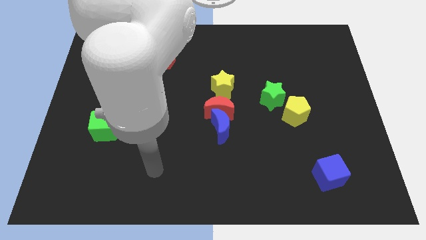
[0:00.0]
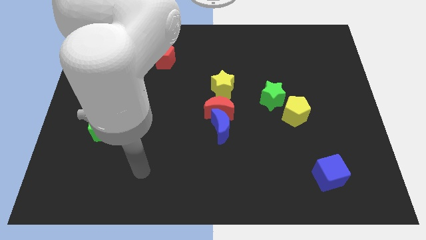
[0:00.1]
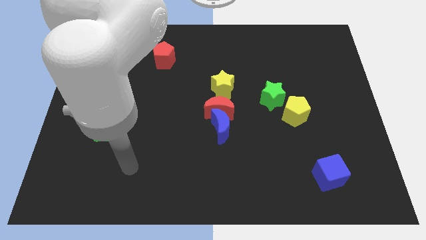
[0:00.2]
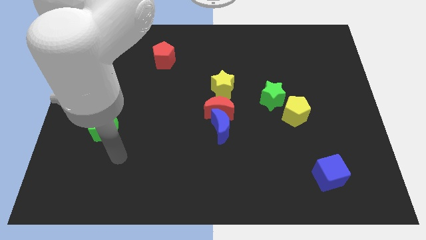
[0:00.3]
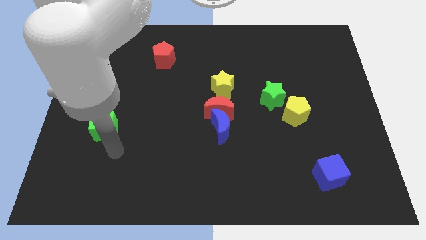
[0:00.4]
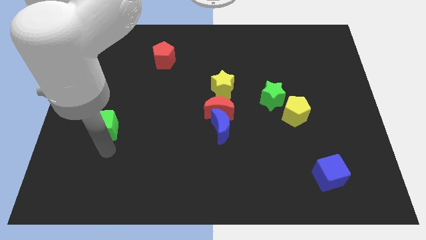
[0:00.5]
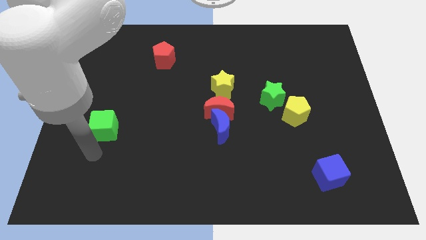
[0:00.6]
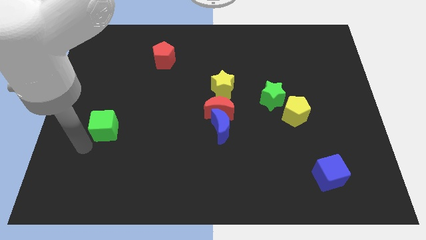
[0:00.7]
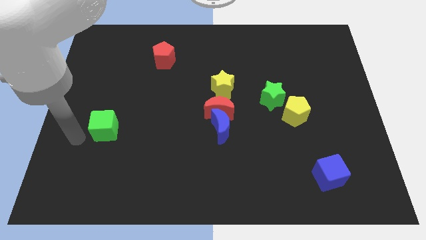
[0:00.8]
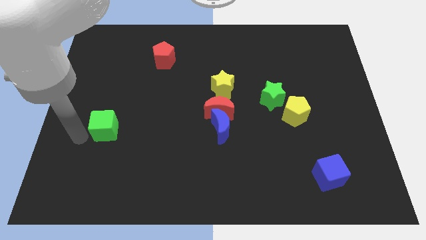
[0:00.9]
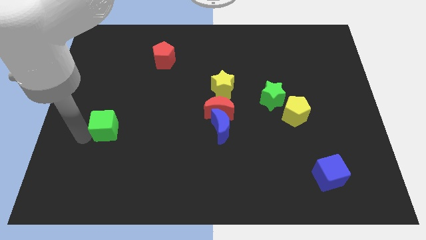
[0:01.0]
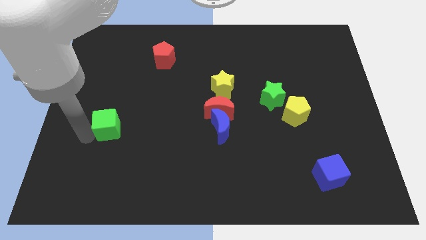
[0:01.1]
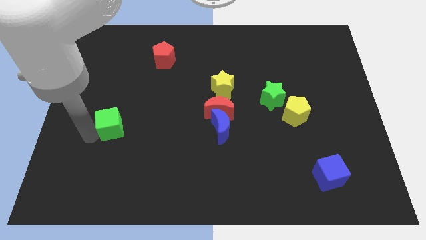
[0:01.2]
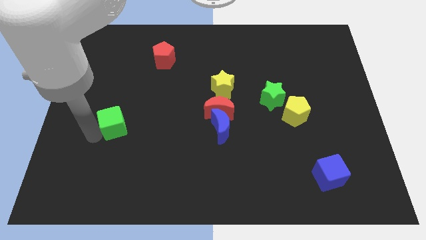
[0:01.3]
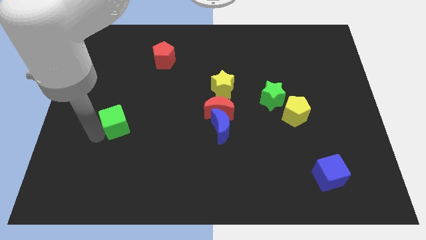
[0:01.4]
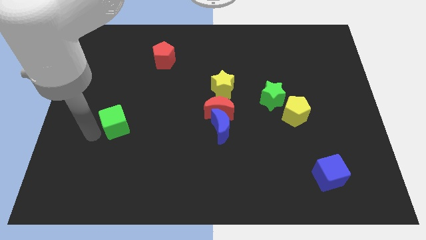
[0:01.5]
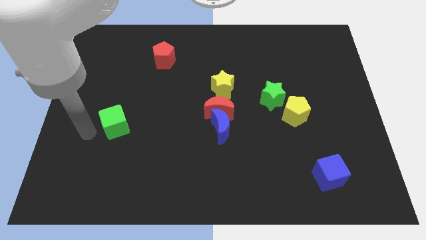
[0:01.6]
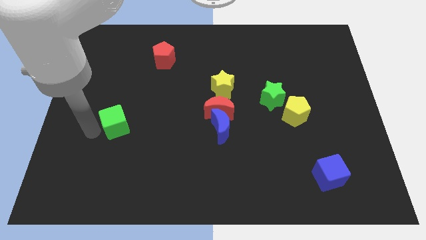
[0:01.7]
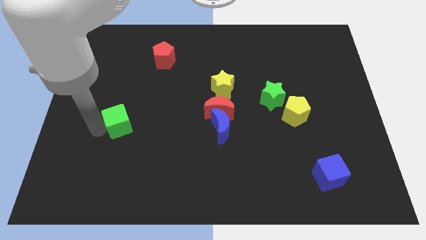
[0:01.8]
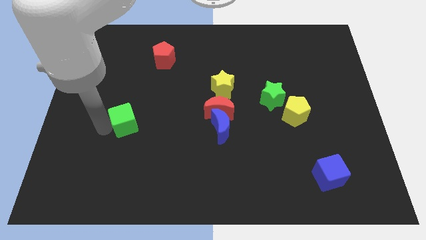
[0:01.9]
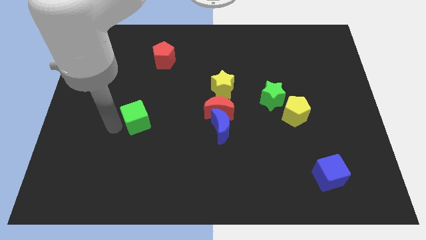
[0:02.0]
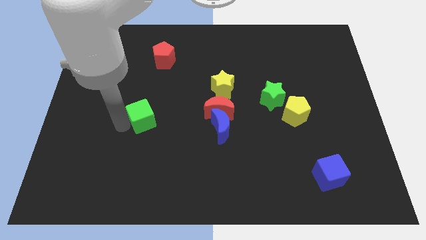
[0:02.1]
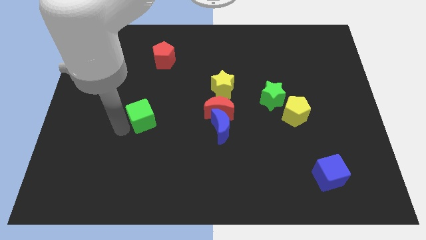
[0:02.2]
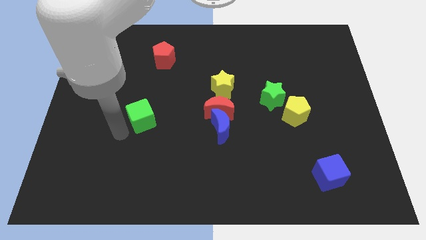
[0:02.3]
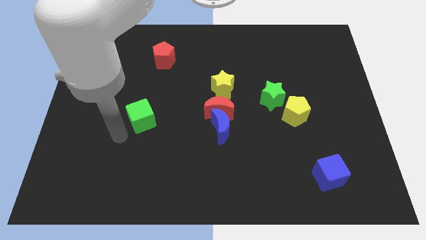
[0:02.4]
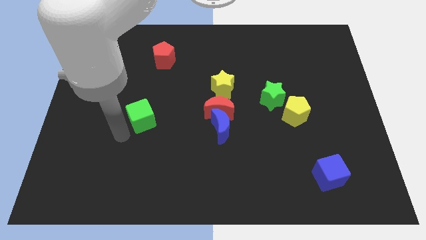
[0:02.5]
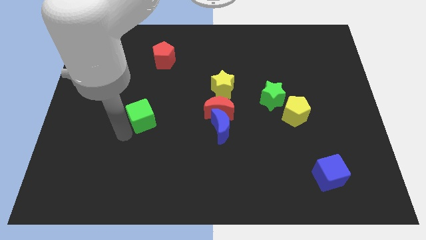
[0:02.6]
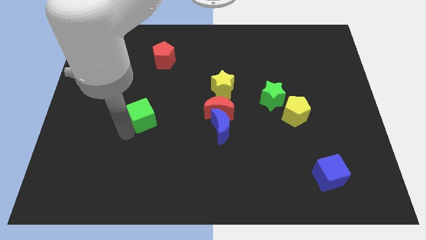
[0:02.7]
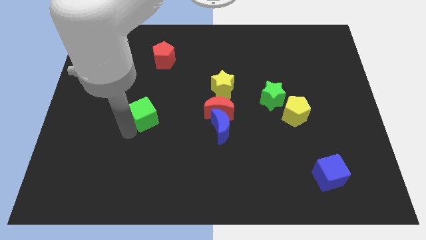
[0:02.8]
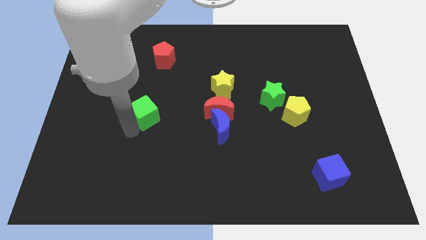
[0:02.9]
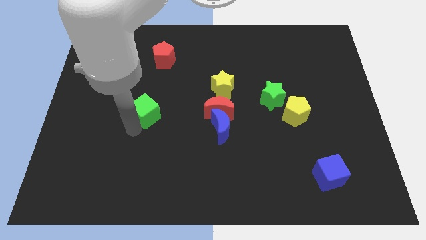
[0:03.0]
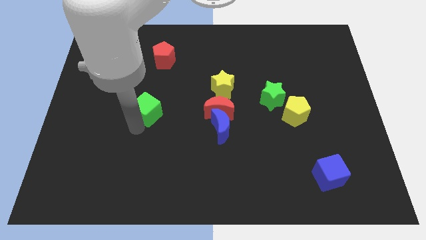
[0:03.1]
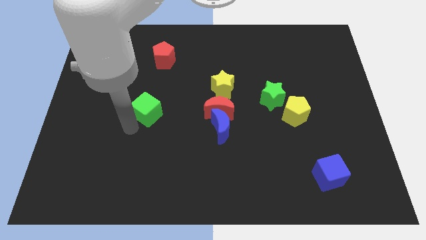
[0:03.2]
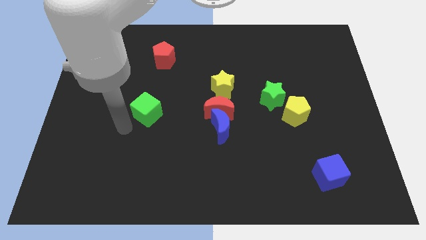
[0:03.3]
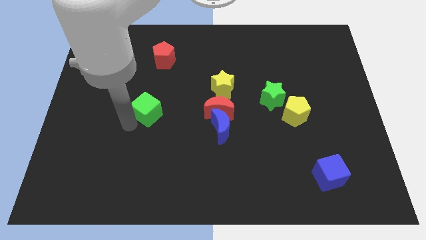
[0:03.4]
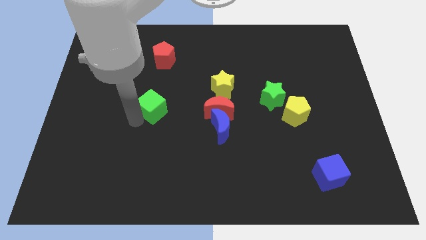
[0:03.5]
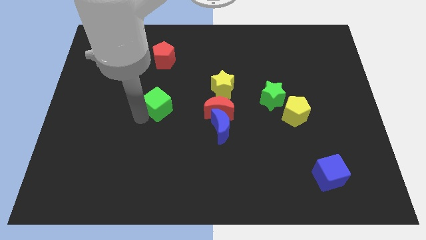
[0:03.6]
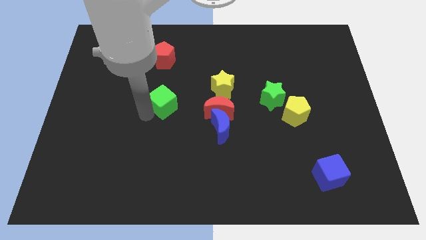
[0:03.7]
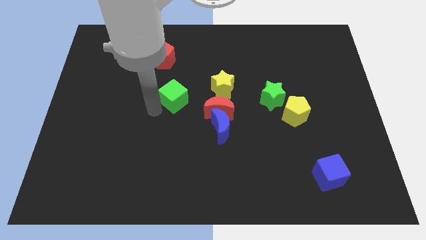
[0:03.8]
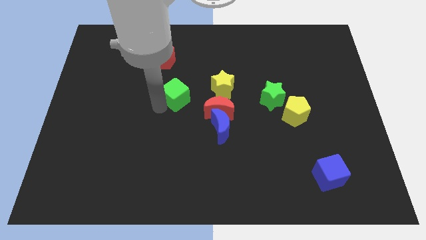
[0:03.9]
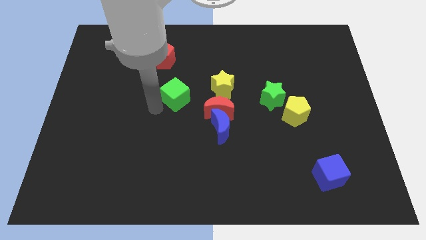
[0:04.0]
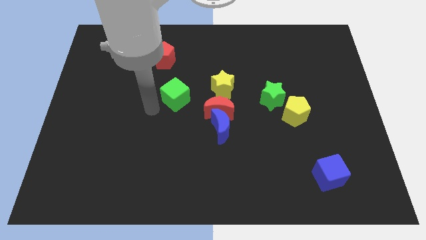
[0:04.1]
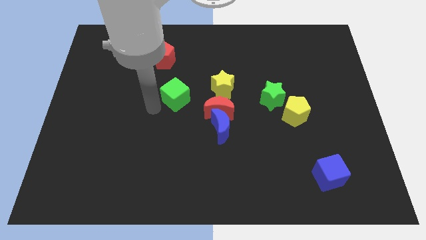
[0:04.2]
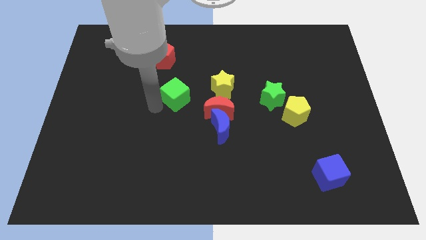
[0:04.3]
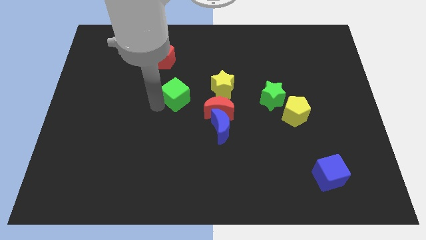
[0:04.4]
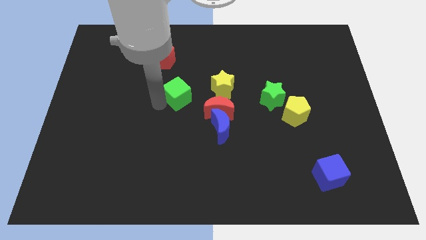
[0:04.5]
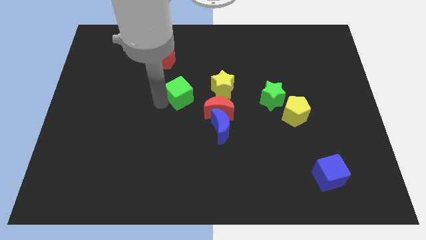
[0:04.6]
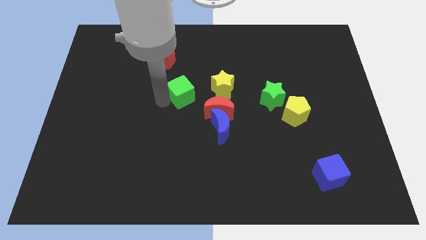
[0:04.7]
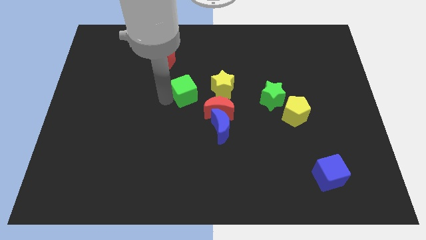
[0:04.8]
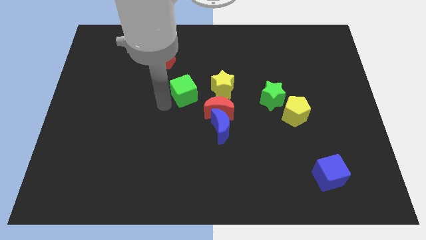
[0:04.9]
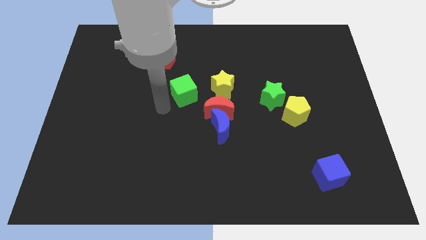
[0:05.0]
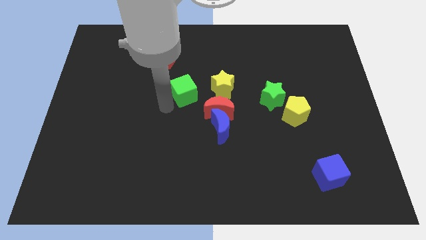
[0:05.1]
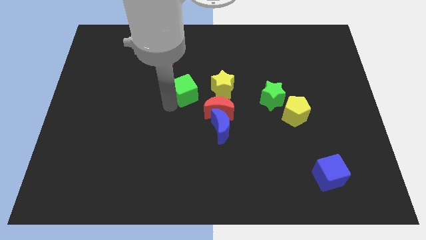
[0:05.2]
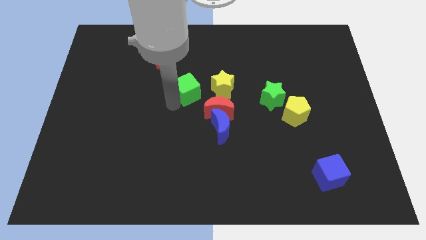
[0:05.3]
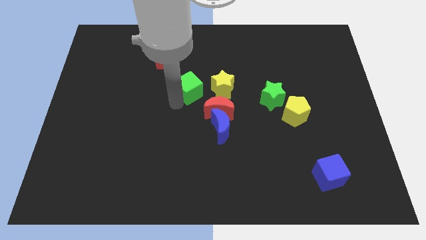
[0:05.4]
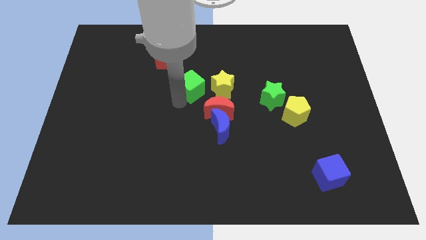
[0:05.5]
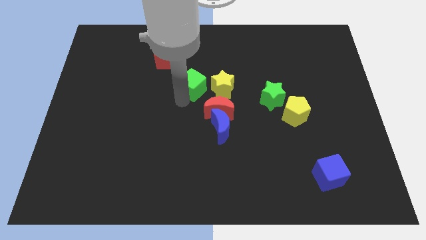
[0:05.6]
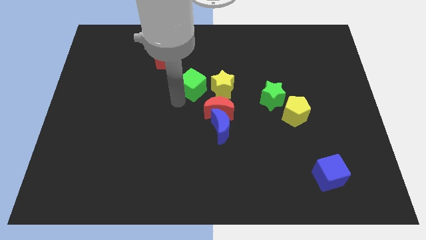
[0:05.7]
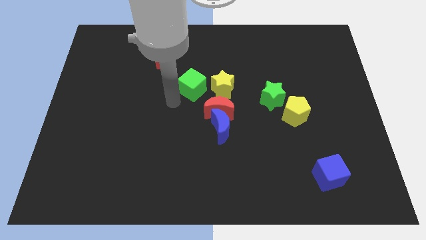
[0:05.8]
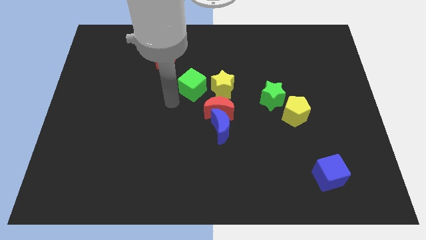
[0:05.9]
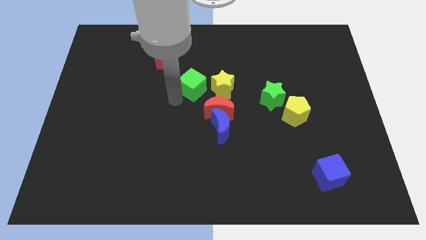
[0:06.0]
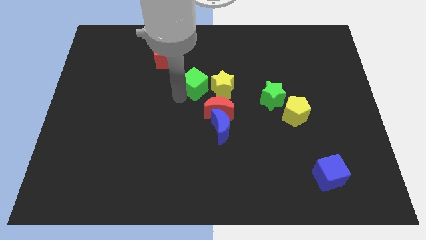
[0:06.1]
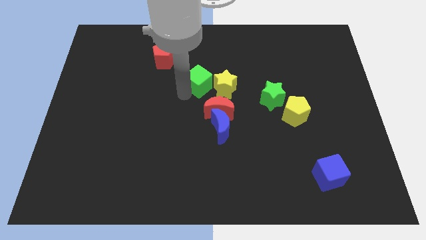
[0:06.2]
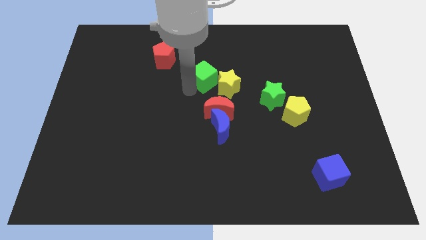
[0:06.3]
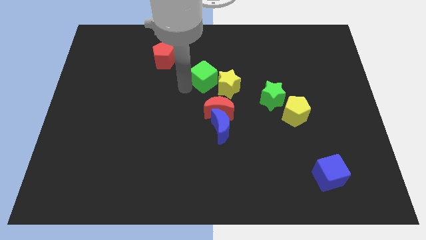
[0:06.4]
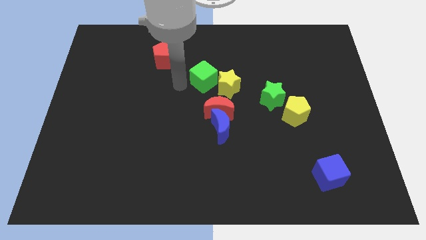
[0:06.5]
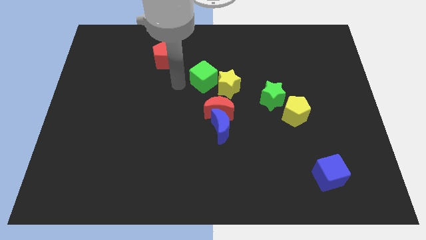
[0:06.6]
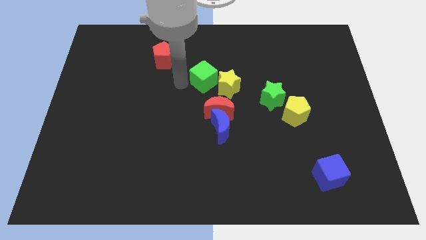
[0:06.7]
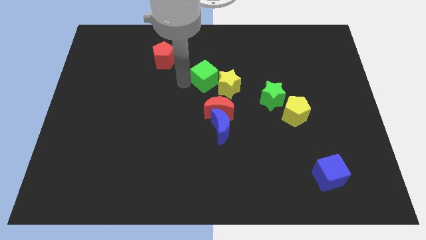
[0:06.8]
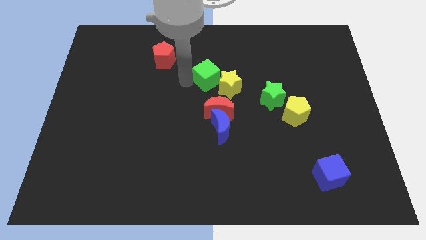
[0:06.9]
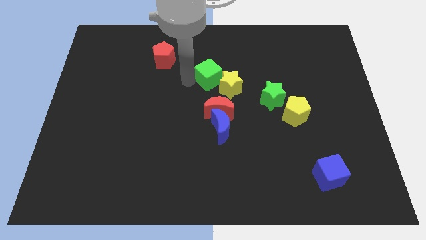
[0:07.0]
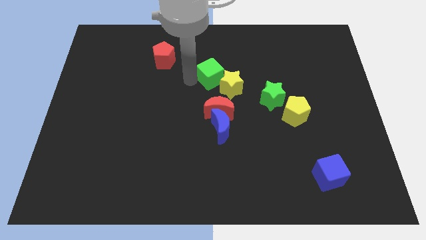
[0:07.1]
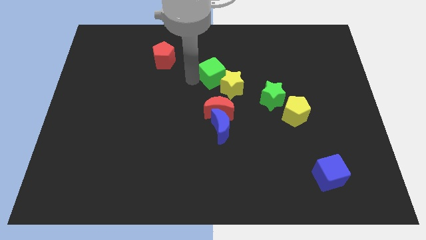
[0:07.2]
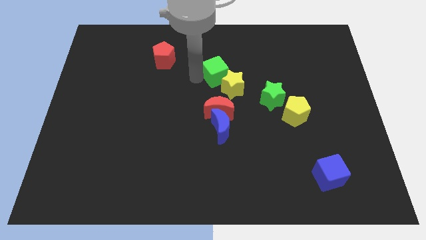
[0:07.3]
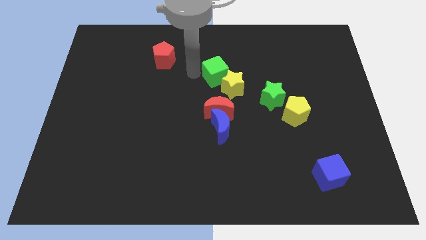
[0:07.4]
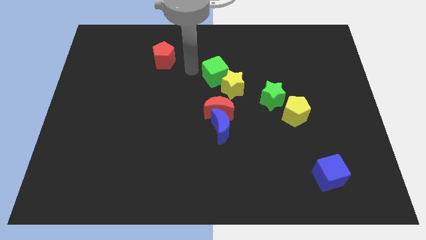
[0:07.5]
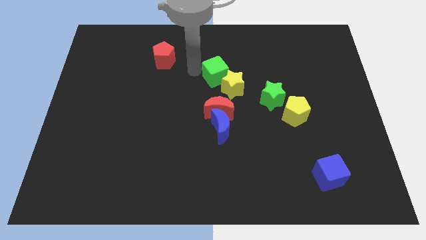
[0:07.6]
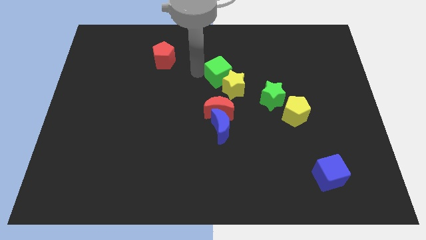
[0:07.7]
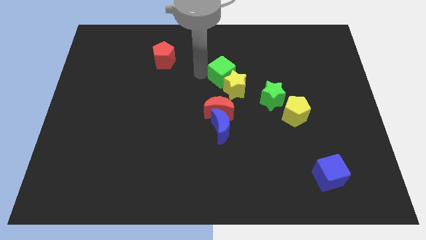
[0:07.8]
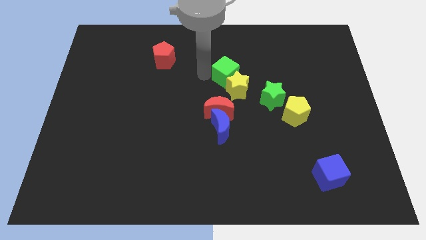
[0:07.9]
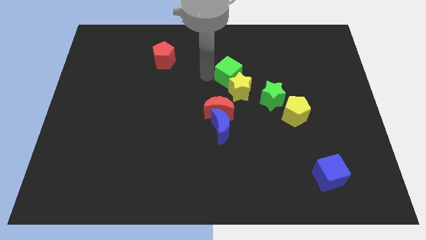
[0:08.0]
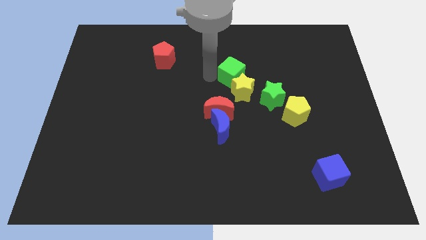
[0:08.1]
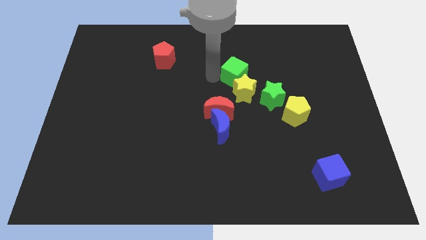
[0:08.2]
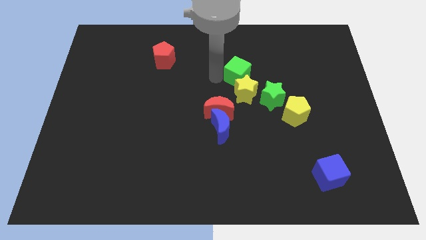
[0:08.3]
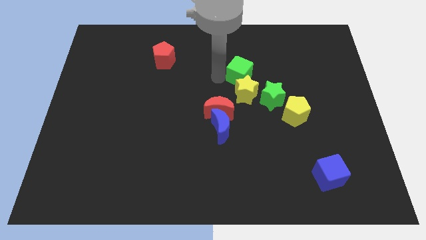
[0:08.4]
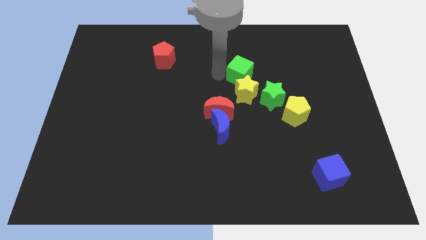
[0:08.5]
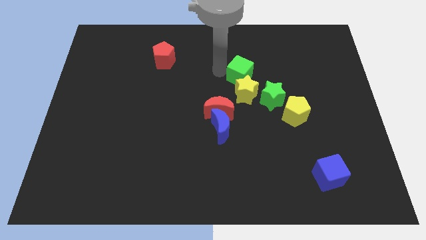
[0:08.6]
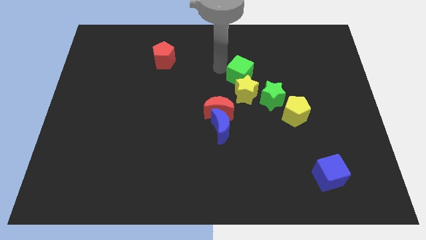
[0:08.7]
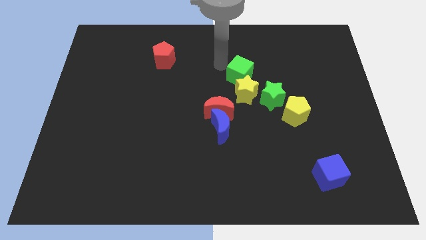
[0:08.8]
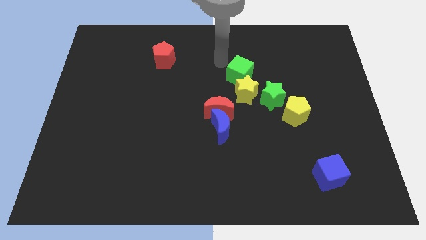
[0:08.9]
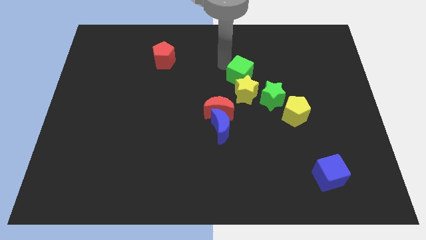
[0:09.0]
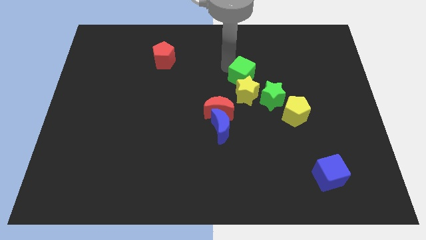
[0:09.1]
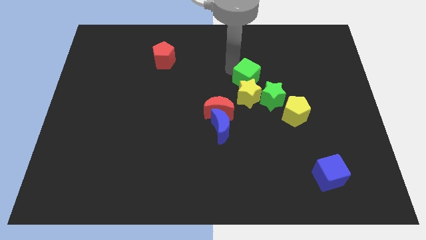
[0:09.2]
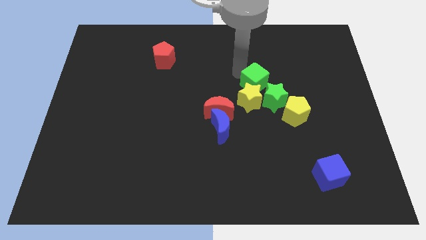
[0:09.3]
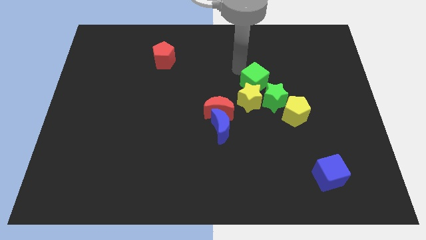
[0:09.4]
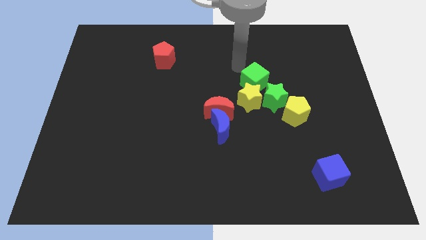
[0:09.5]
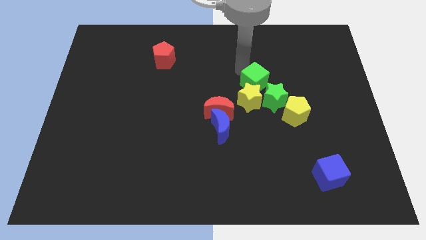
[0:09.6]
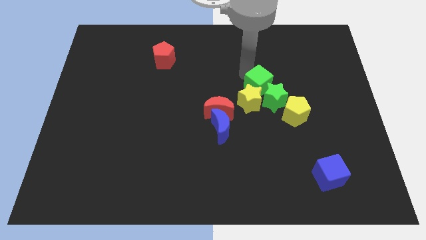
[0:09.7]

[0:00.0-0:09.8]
move the green cube to the green star
